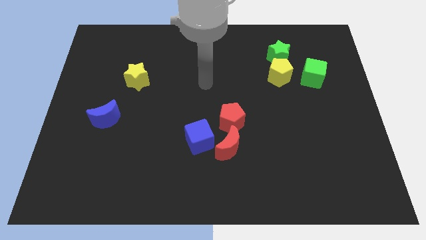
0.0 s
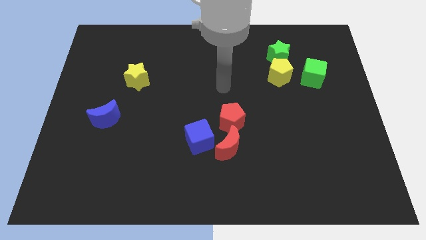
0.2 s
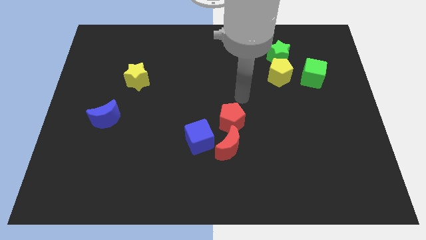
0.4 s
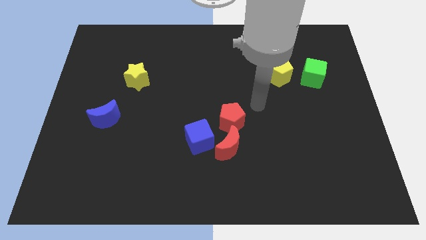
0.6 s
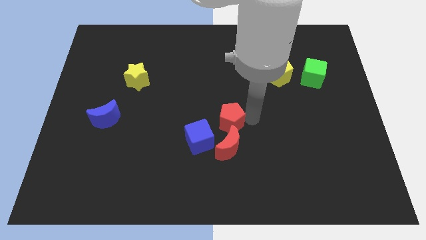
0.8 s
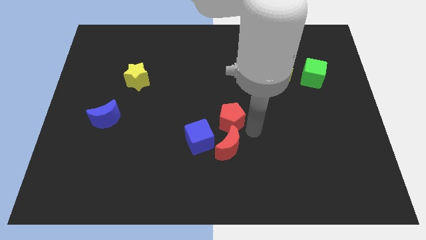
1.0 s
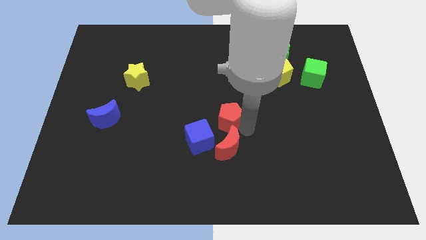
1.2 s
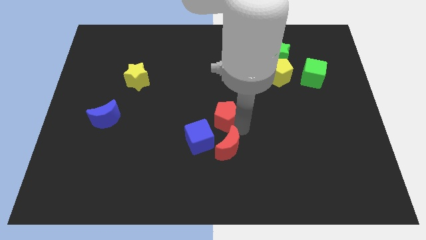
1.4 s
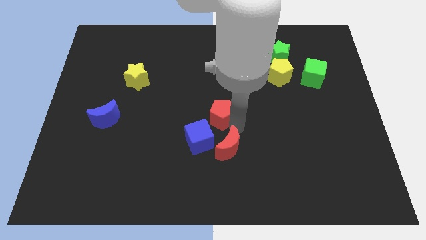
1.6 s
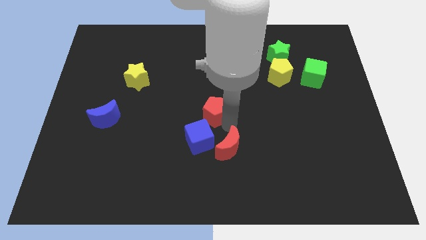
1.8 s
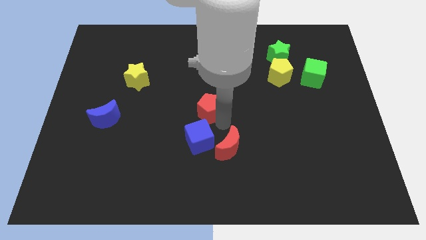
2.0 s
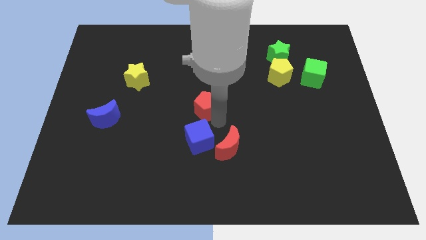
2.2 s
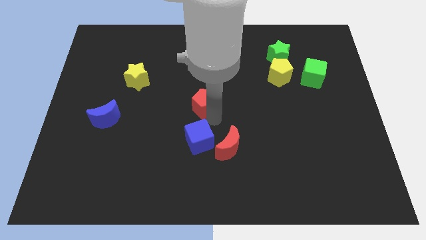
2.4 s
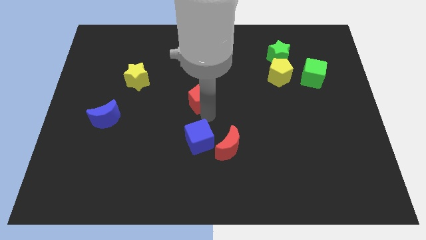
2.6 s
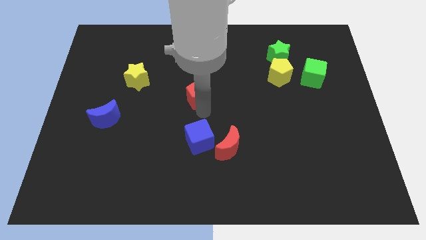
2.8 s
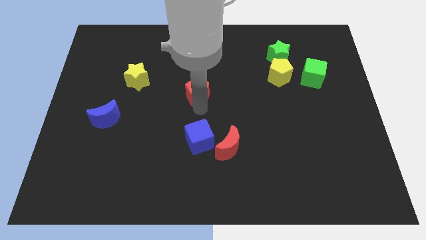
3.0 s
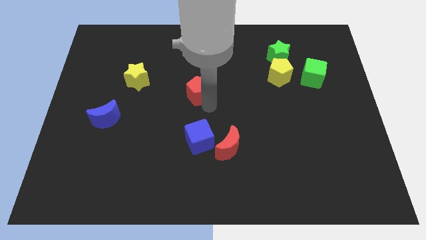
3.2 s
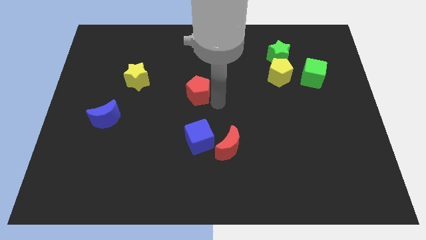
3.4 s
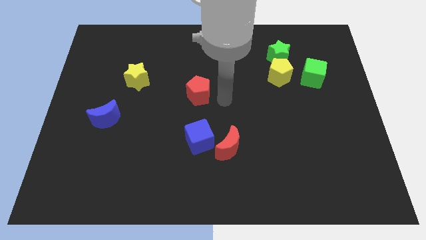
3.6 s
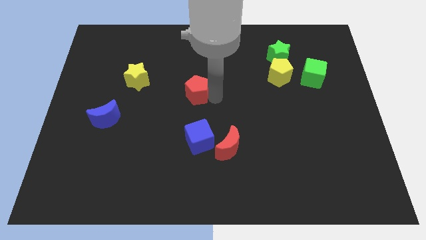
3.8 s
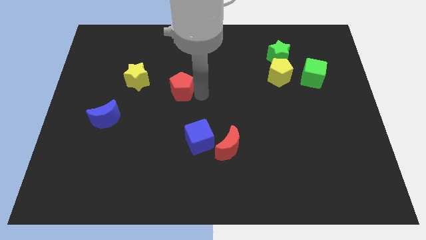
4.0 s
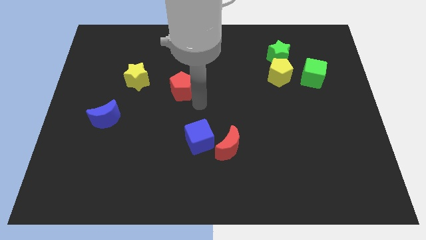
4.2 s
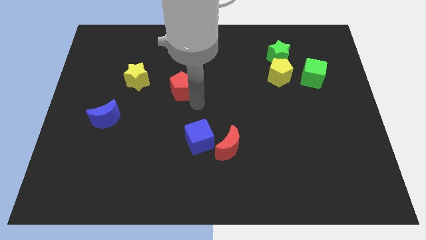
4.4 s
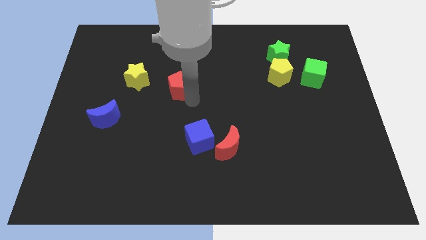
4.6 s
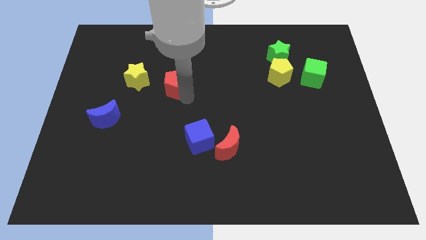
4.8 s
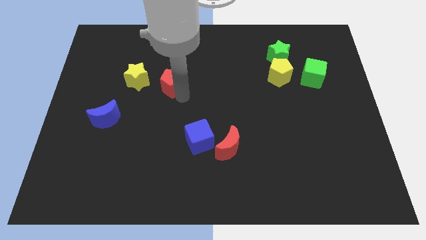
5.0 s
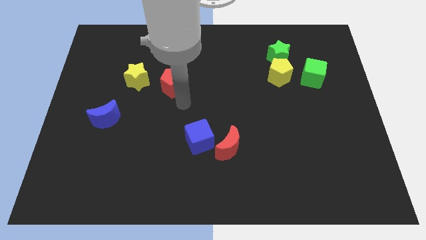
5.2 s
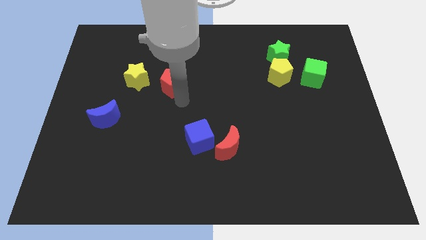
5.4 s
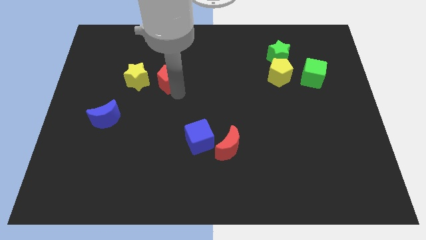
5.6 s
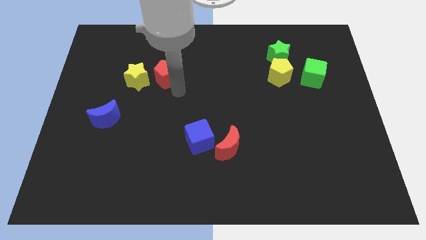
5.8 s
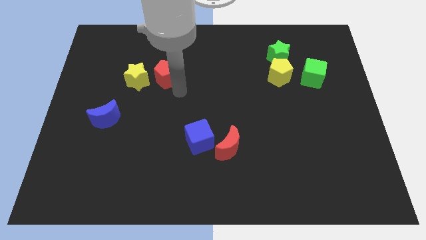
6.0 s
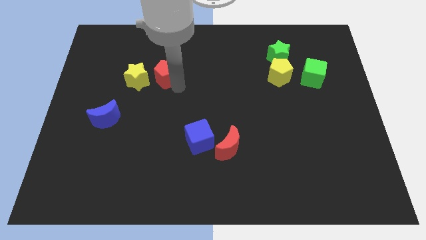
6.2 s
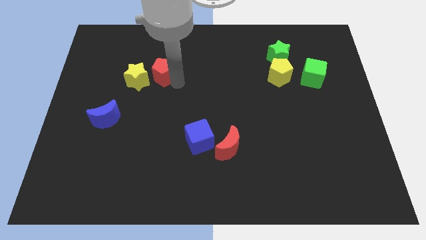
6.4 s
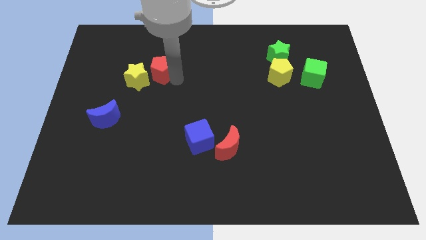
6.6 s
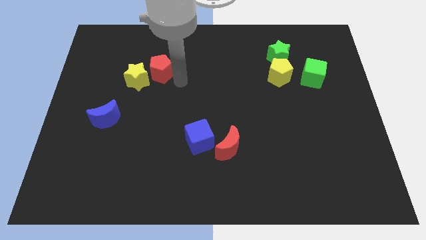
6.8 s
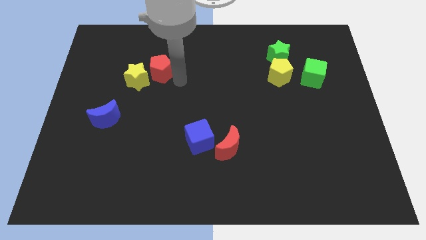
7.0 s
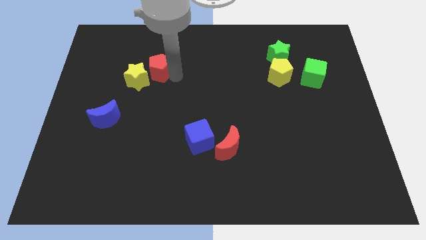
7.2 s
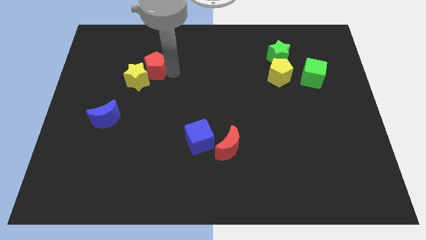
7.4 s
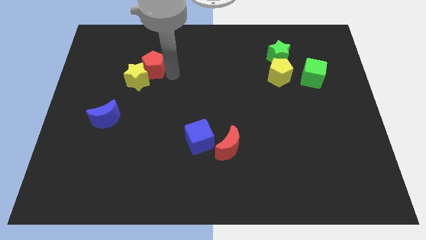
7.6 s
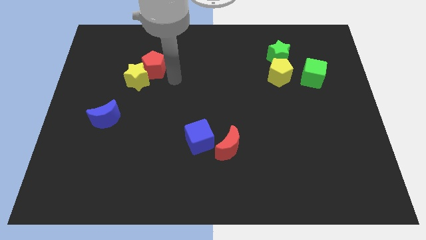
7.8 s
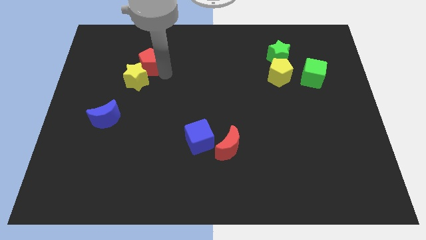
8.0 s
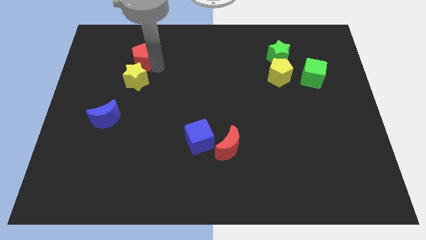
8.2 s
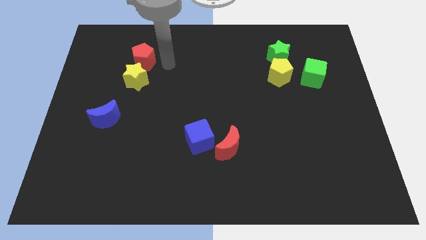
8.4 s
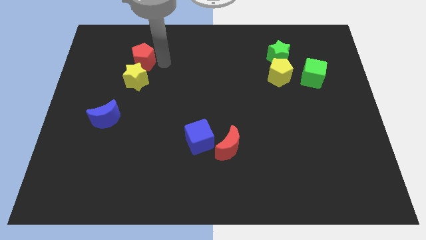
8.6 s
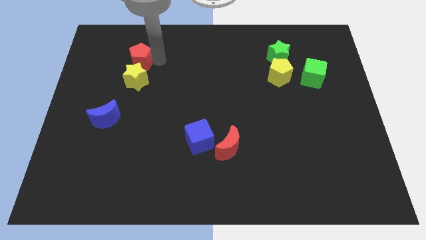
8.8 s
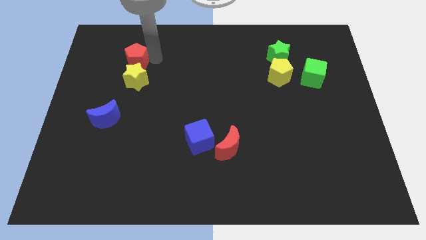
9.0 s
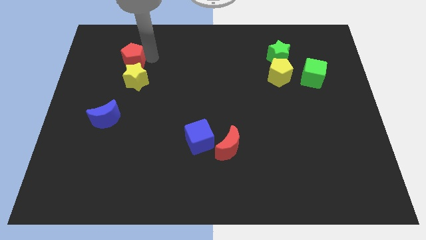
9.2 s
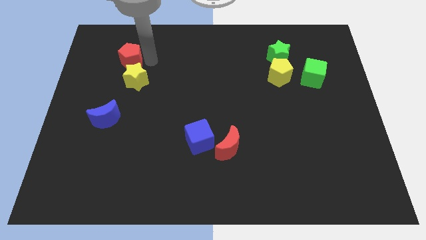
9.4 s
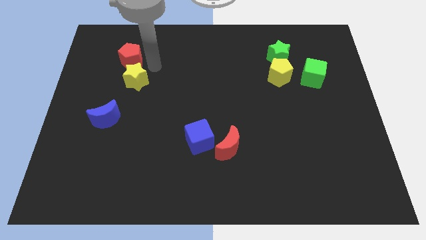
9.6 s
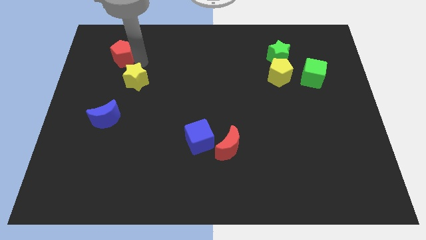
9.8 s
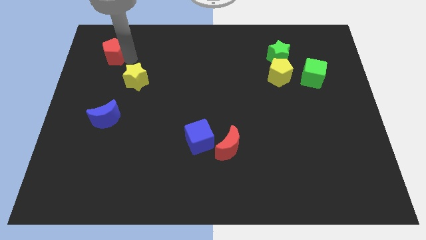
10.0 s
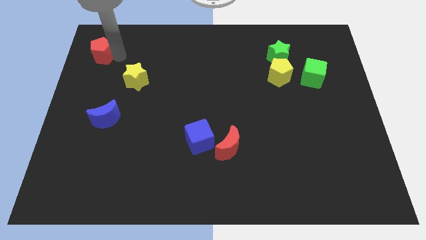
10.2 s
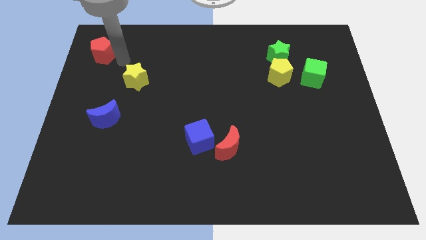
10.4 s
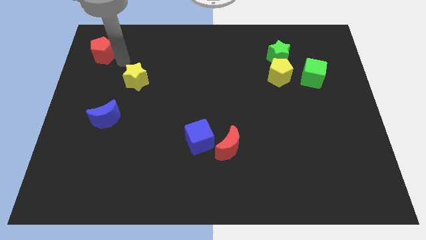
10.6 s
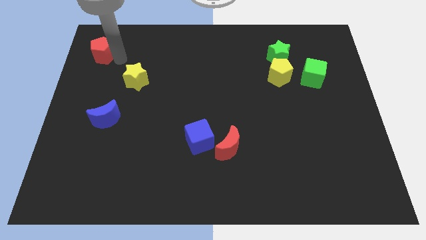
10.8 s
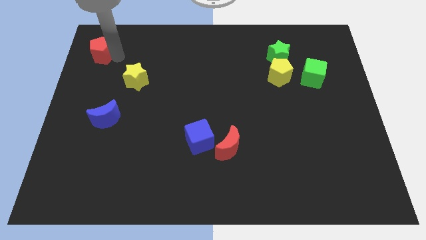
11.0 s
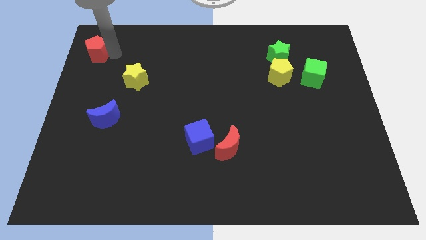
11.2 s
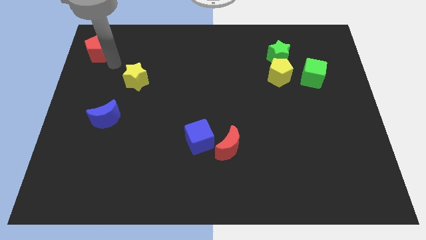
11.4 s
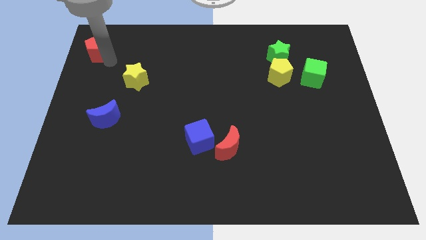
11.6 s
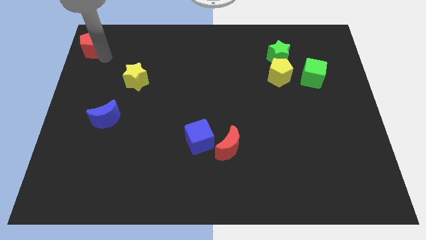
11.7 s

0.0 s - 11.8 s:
move the red pentagon to the top left corner

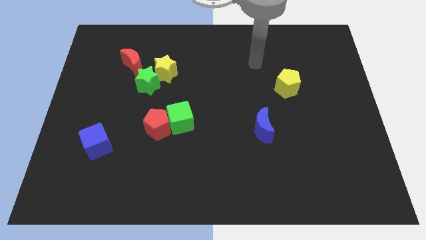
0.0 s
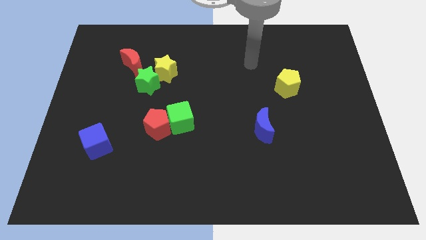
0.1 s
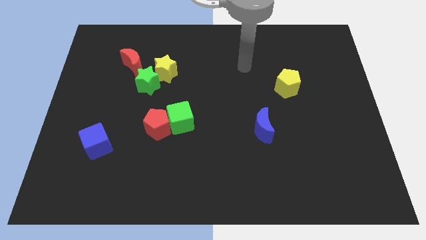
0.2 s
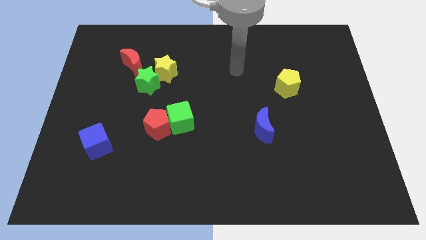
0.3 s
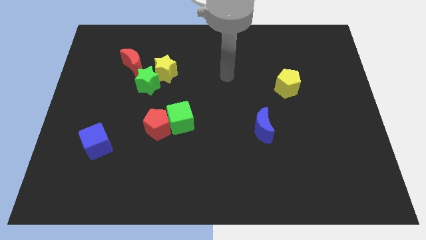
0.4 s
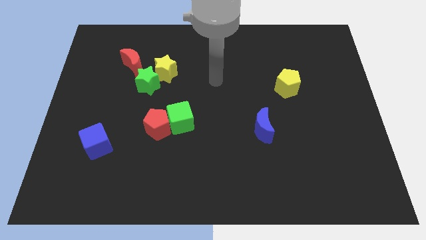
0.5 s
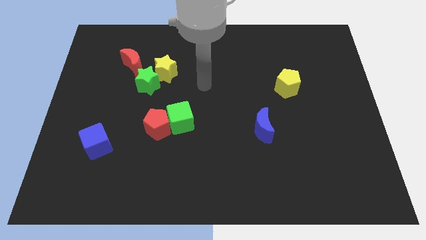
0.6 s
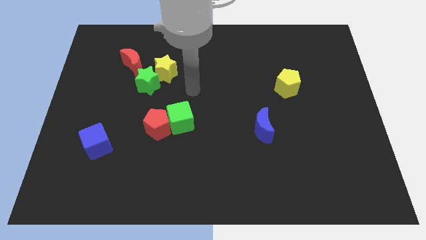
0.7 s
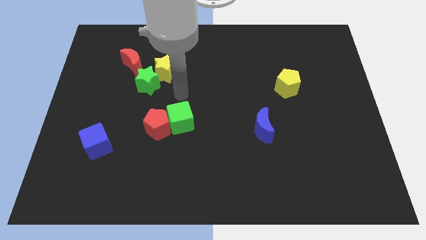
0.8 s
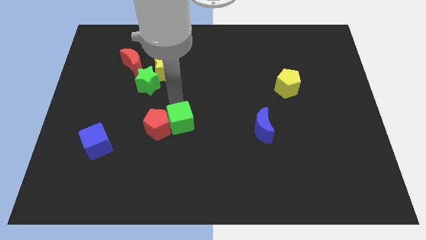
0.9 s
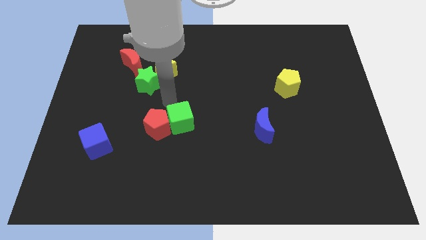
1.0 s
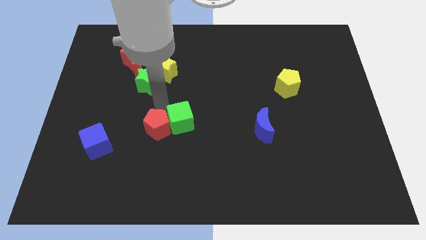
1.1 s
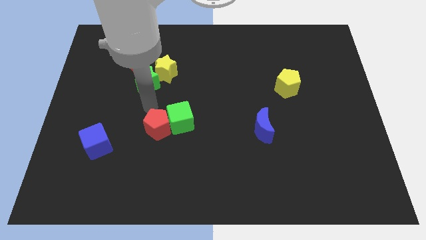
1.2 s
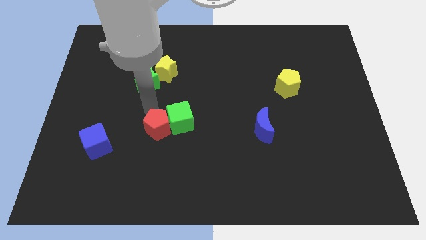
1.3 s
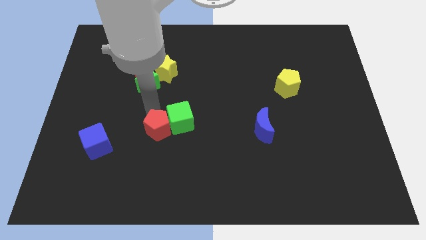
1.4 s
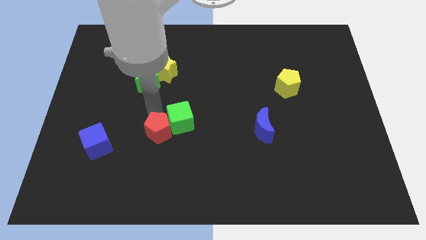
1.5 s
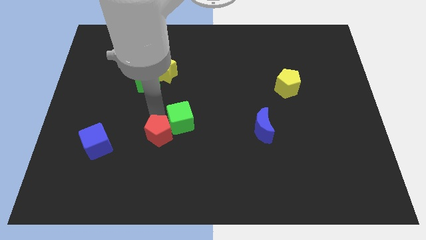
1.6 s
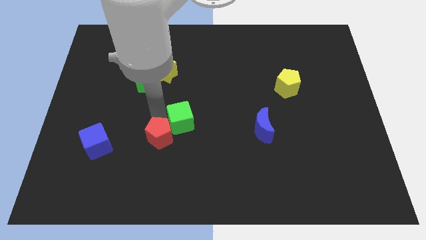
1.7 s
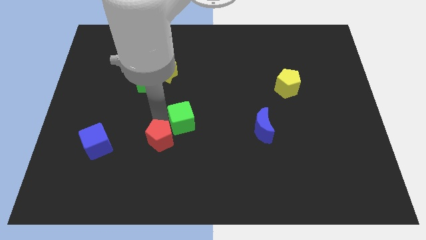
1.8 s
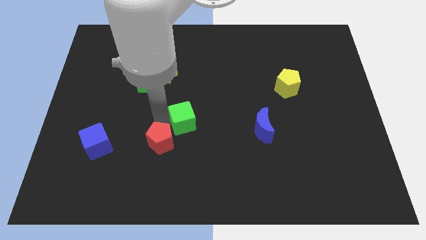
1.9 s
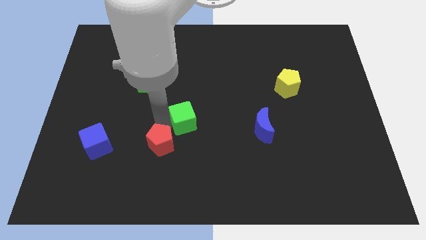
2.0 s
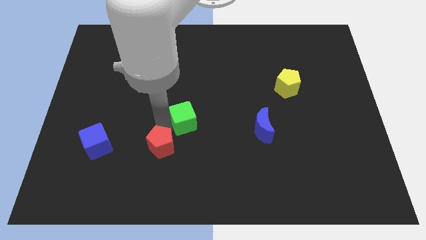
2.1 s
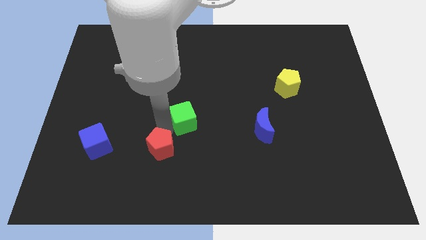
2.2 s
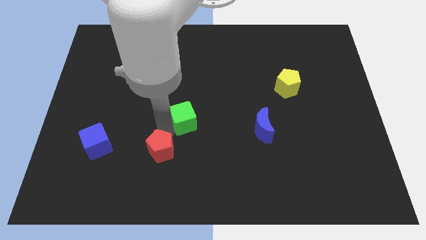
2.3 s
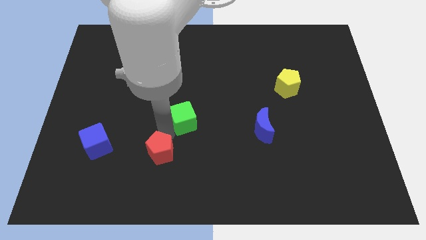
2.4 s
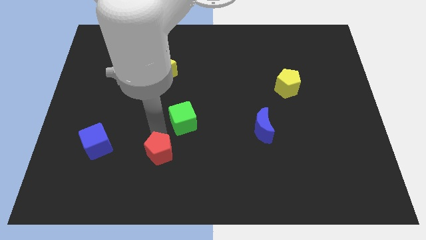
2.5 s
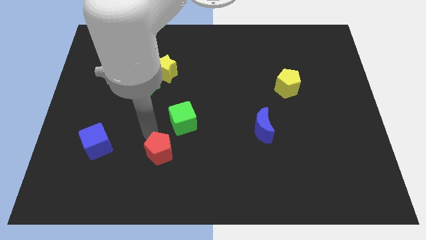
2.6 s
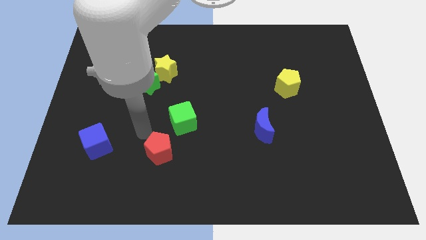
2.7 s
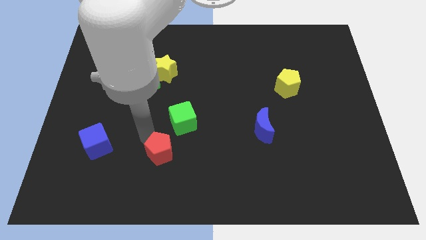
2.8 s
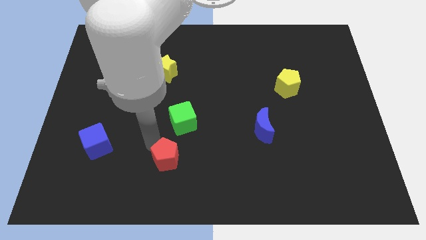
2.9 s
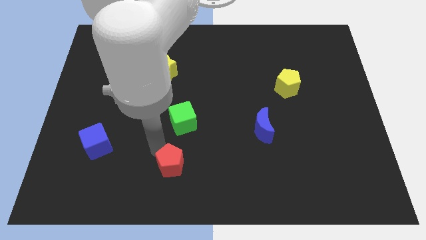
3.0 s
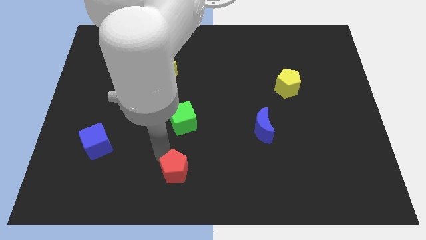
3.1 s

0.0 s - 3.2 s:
move the red pentagon to the bottom side
